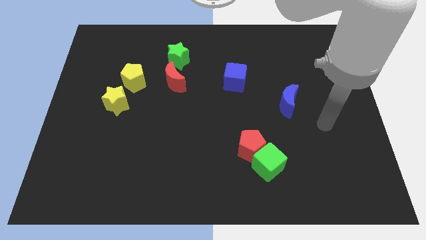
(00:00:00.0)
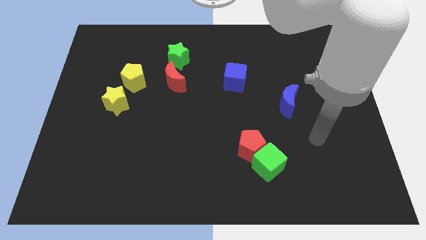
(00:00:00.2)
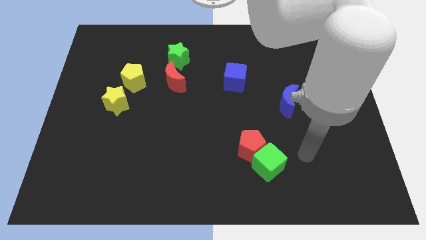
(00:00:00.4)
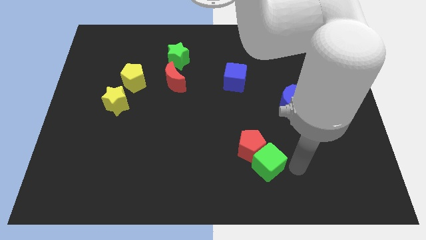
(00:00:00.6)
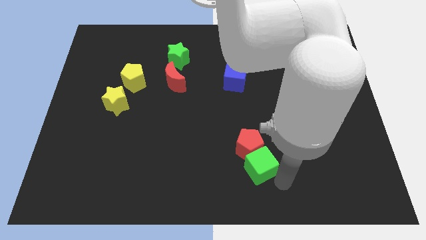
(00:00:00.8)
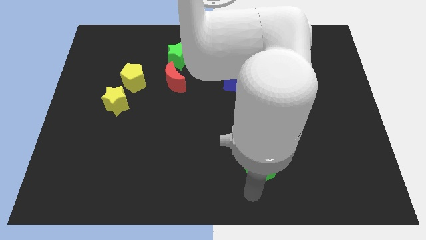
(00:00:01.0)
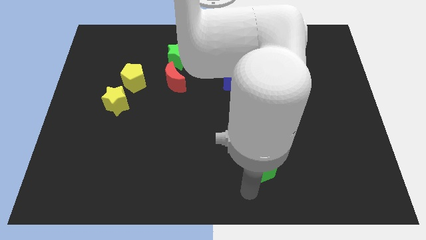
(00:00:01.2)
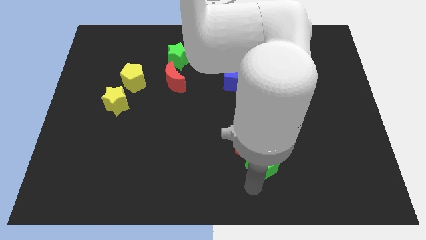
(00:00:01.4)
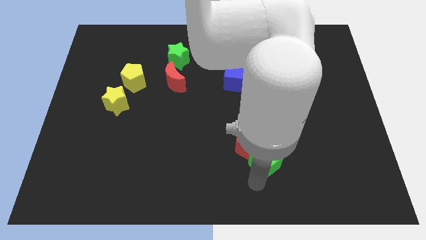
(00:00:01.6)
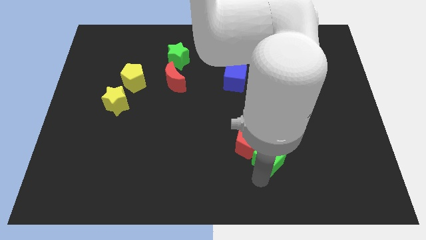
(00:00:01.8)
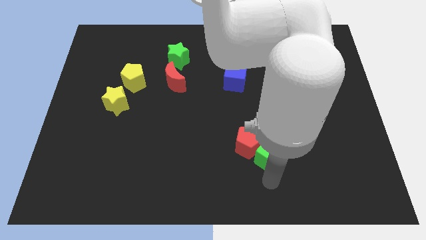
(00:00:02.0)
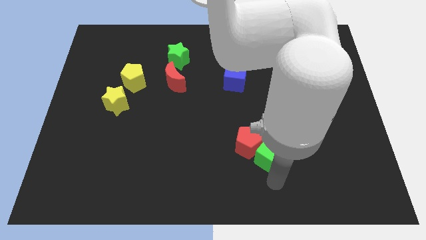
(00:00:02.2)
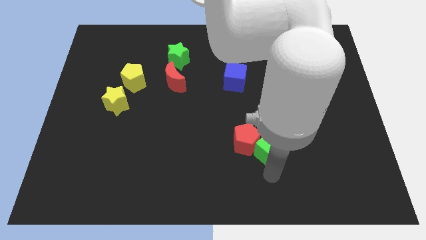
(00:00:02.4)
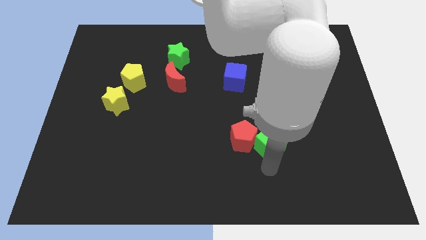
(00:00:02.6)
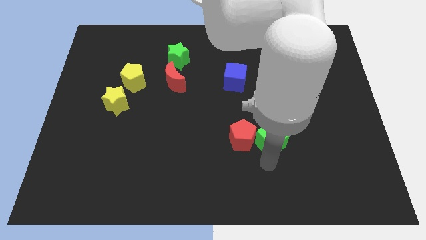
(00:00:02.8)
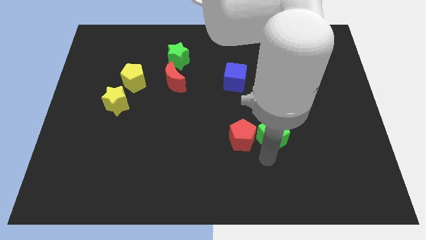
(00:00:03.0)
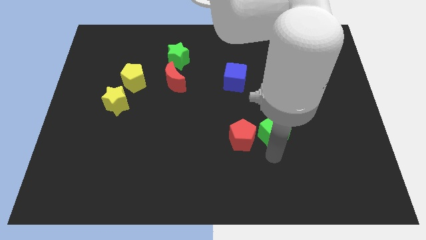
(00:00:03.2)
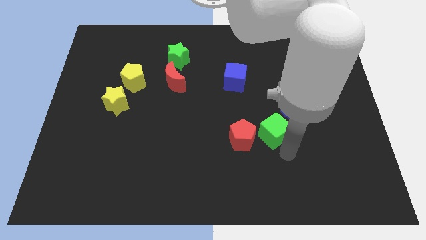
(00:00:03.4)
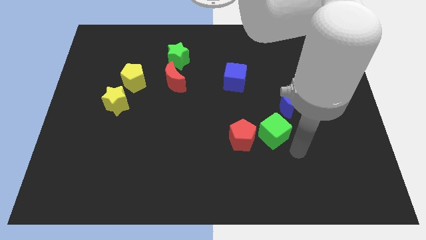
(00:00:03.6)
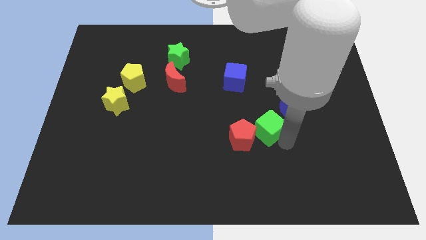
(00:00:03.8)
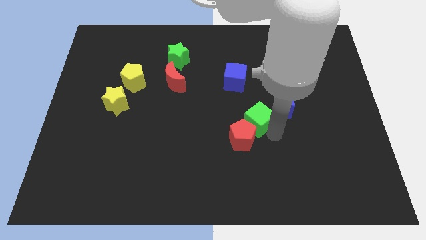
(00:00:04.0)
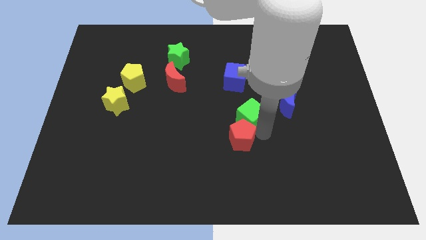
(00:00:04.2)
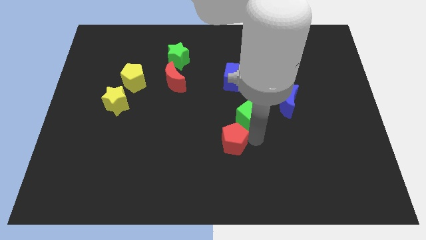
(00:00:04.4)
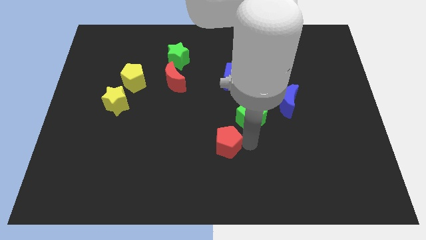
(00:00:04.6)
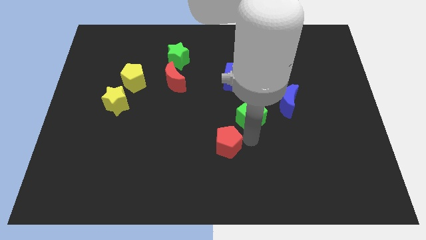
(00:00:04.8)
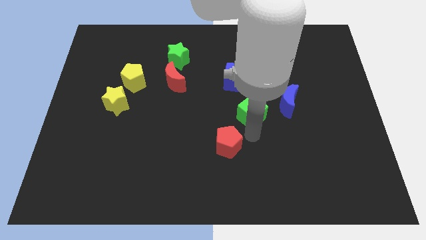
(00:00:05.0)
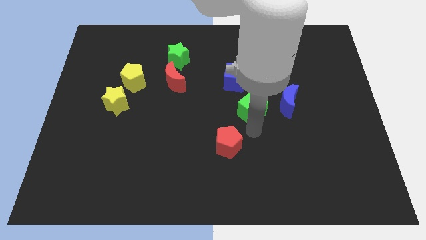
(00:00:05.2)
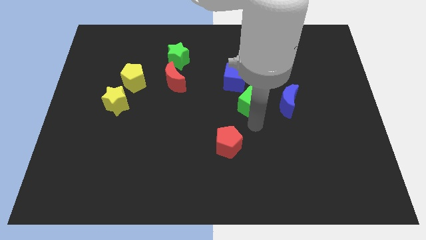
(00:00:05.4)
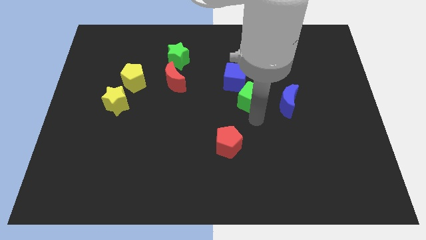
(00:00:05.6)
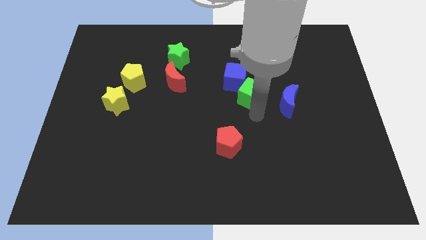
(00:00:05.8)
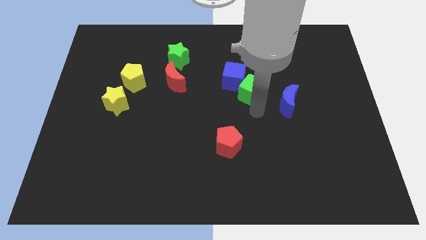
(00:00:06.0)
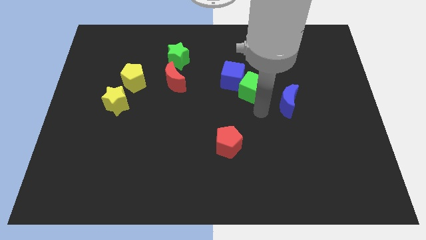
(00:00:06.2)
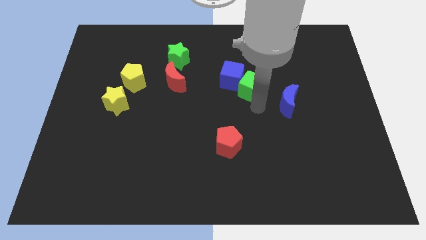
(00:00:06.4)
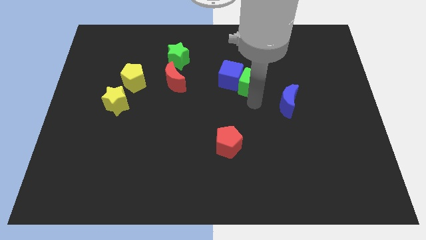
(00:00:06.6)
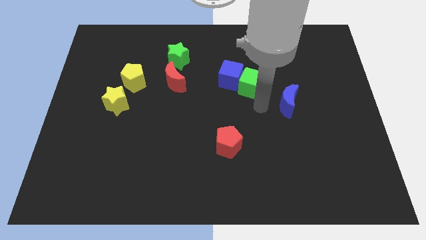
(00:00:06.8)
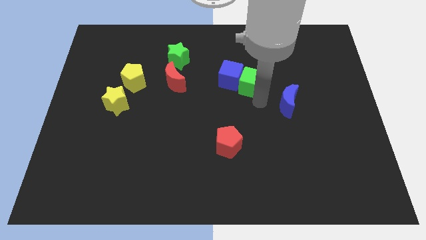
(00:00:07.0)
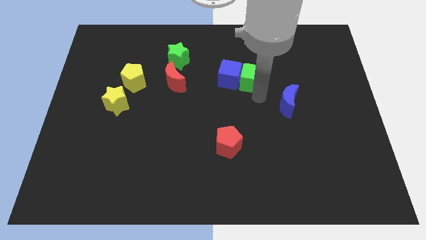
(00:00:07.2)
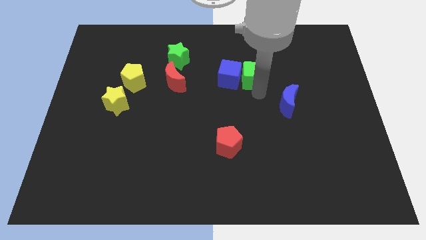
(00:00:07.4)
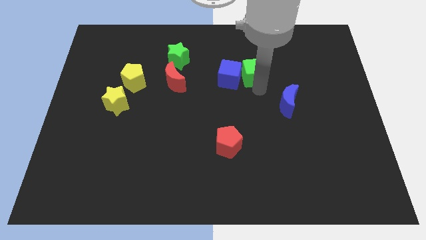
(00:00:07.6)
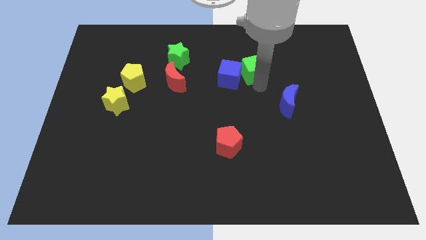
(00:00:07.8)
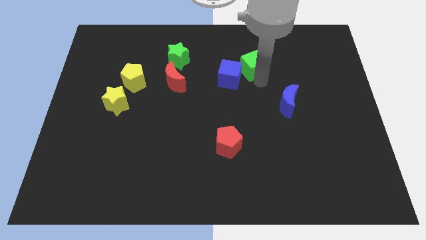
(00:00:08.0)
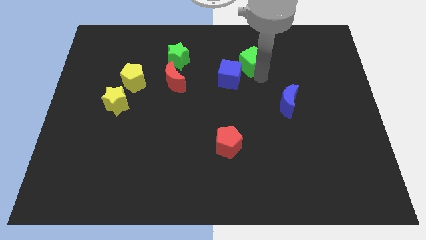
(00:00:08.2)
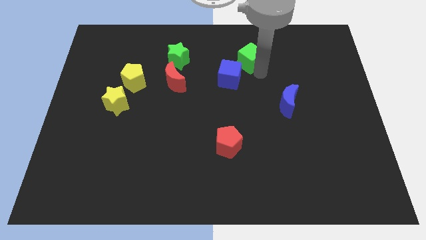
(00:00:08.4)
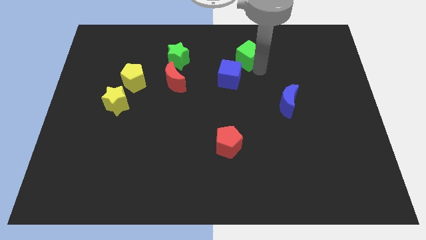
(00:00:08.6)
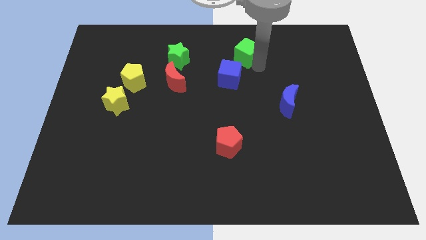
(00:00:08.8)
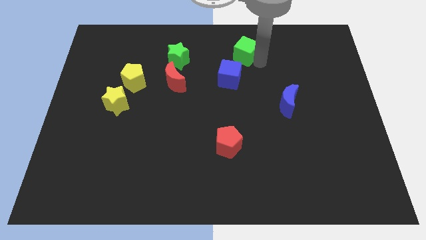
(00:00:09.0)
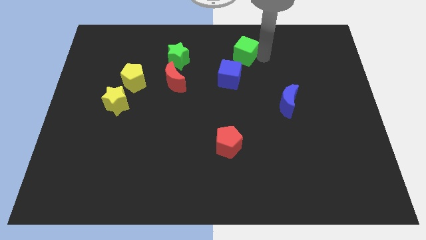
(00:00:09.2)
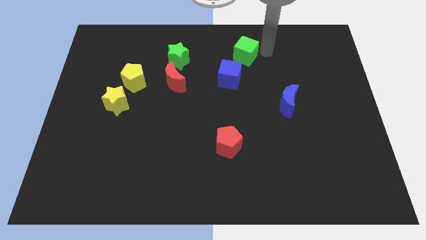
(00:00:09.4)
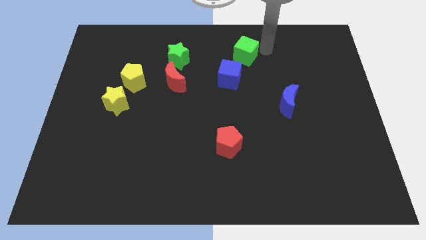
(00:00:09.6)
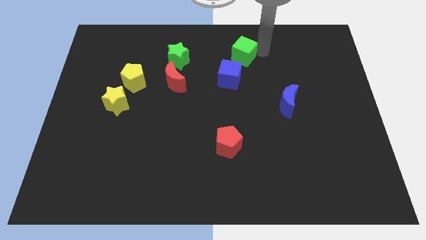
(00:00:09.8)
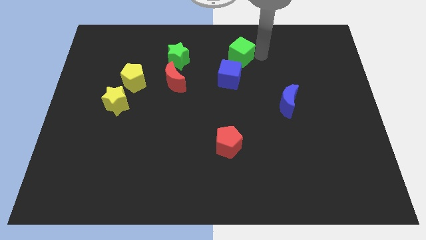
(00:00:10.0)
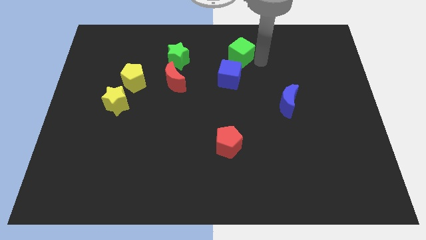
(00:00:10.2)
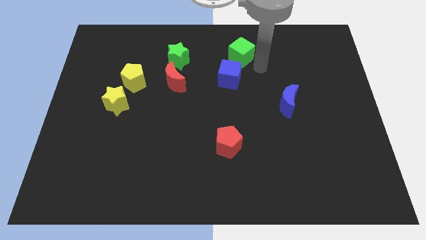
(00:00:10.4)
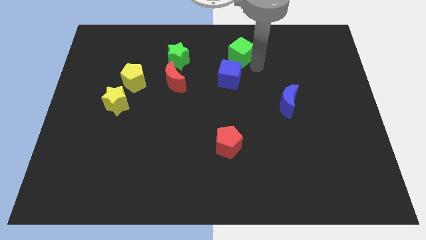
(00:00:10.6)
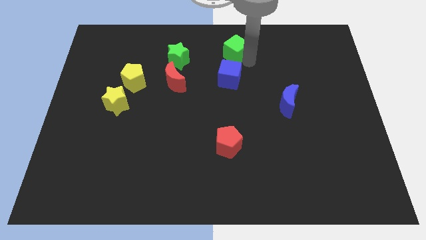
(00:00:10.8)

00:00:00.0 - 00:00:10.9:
put the green cube to the top

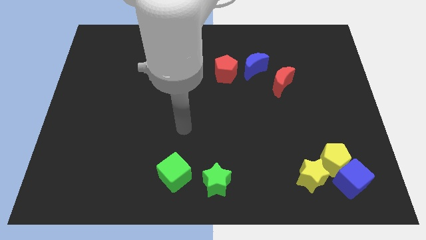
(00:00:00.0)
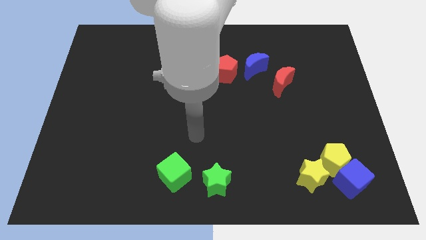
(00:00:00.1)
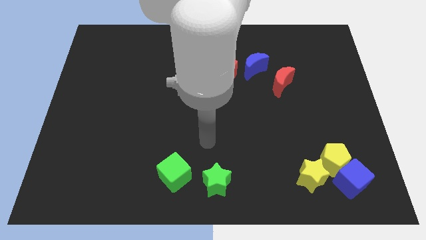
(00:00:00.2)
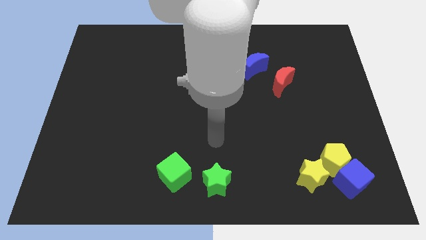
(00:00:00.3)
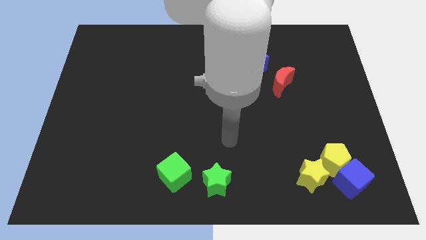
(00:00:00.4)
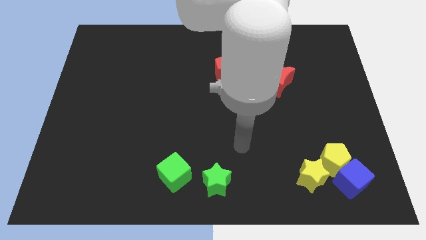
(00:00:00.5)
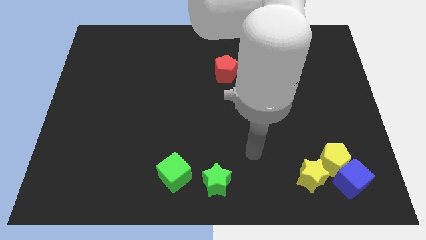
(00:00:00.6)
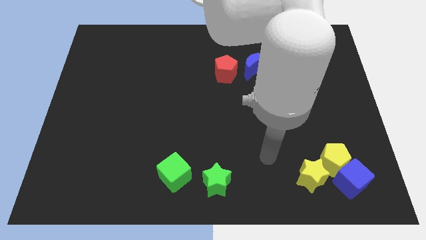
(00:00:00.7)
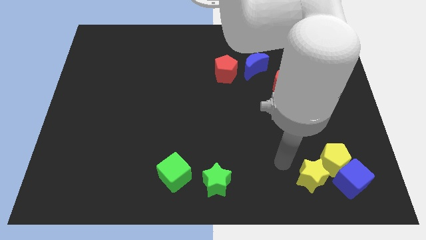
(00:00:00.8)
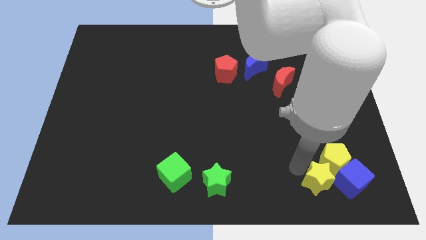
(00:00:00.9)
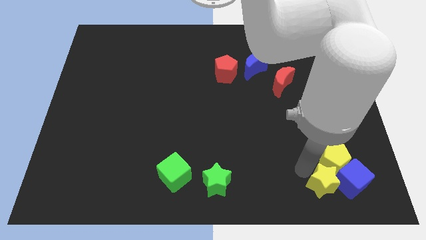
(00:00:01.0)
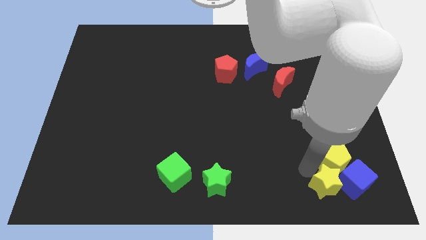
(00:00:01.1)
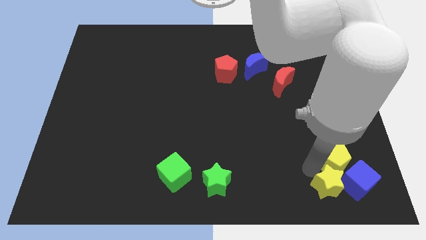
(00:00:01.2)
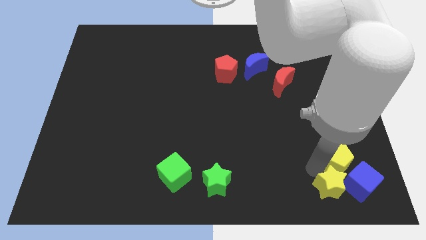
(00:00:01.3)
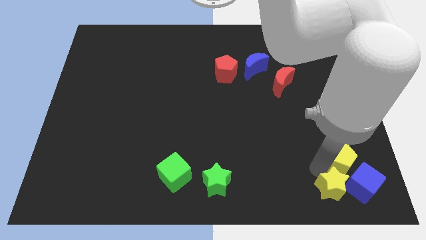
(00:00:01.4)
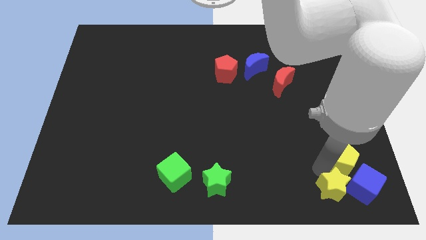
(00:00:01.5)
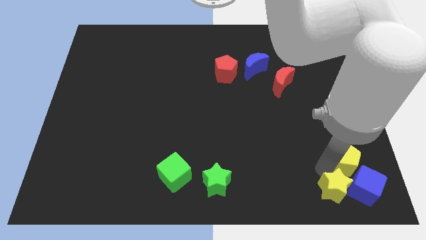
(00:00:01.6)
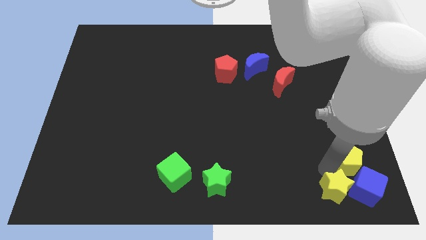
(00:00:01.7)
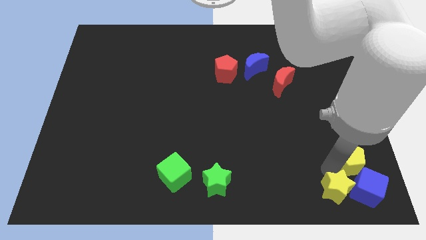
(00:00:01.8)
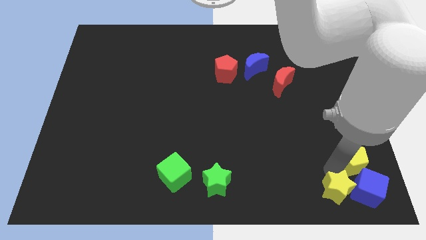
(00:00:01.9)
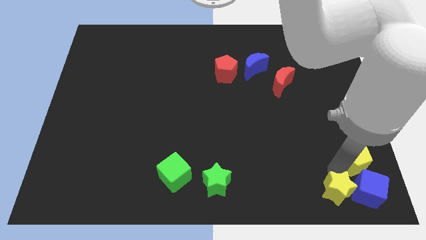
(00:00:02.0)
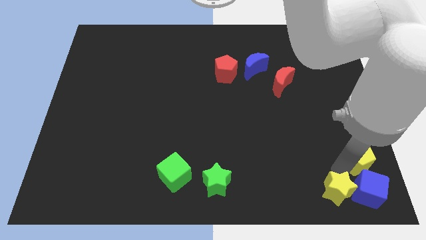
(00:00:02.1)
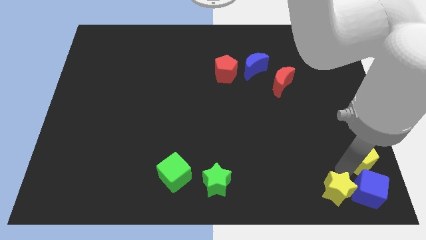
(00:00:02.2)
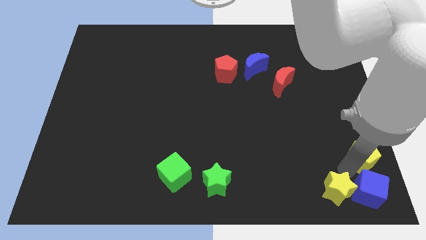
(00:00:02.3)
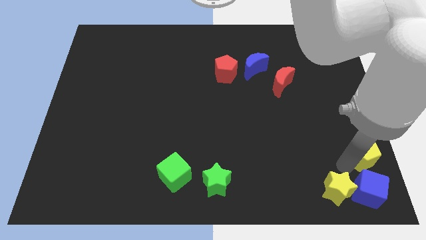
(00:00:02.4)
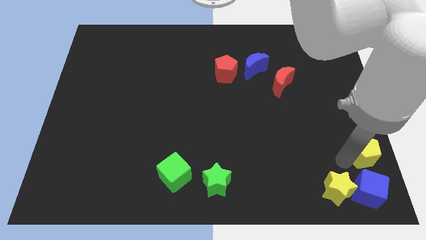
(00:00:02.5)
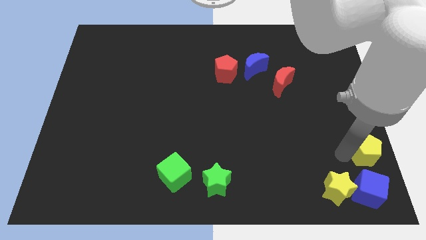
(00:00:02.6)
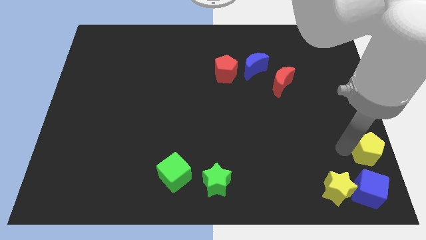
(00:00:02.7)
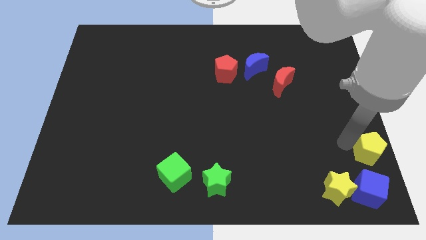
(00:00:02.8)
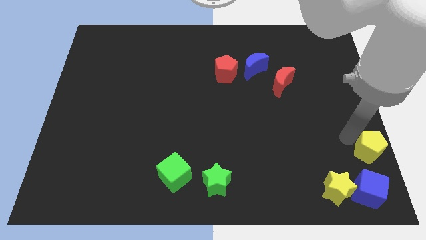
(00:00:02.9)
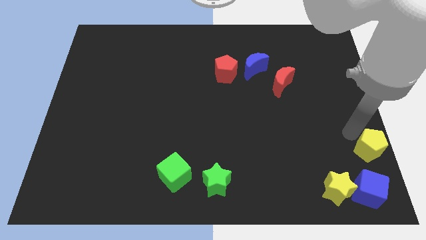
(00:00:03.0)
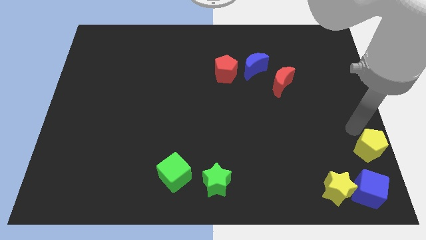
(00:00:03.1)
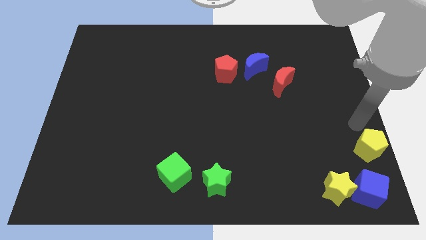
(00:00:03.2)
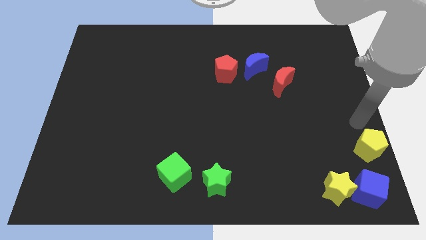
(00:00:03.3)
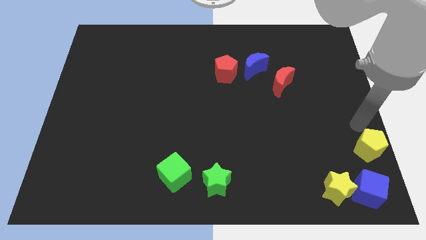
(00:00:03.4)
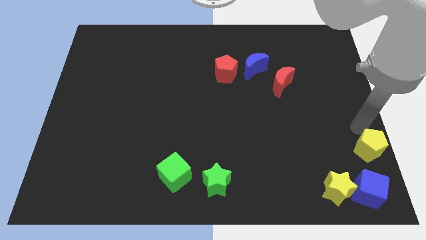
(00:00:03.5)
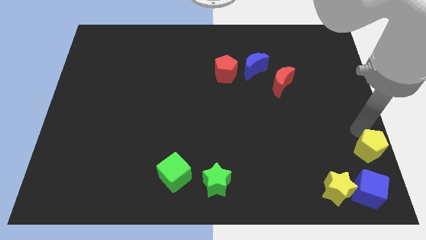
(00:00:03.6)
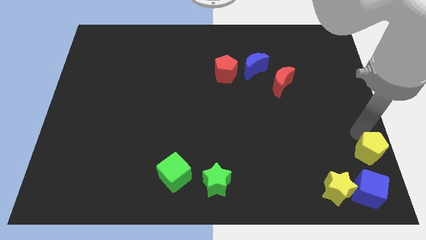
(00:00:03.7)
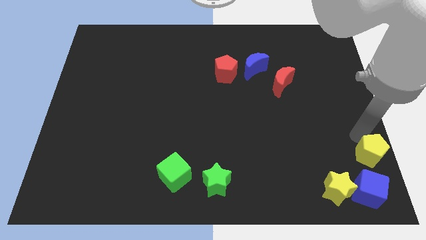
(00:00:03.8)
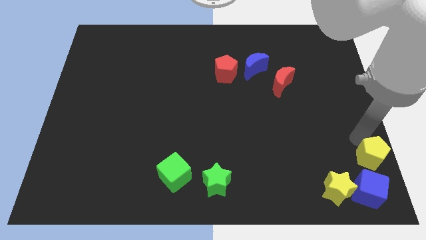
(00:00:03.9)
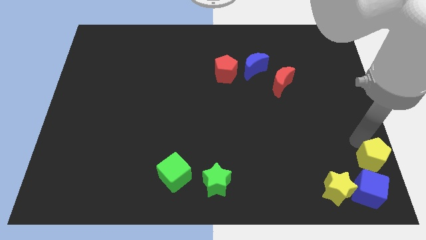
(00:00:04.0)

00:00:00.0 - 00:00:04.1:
put the yellow pentagon to the bottom right
